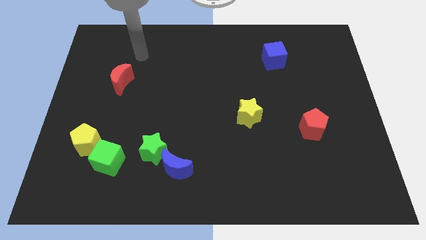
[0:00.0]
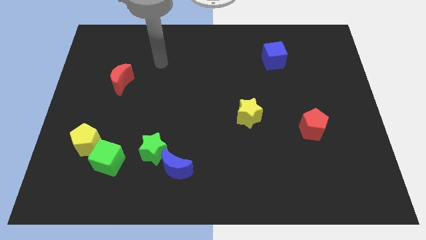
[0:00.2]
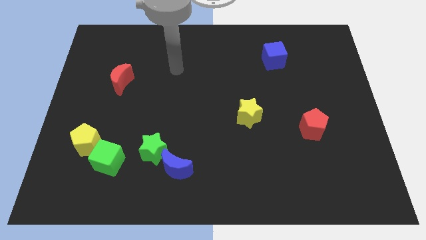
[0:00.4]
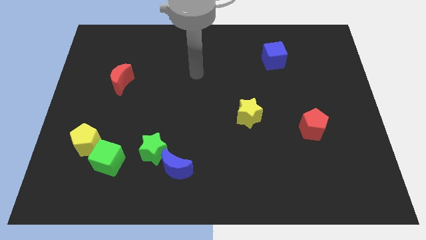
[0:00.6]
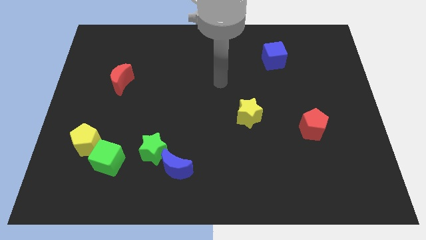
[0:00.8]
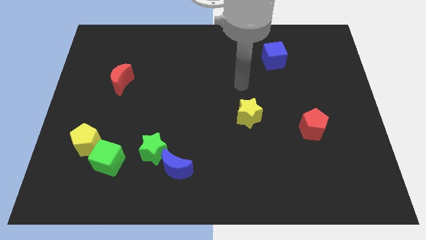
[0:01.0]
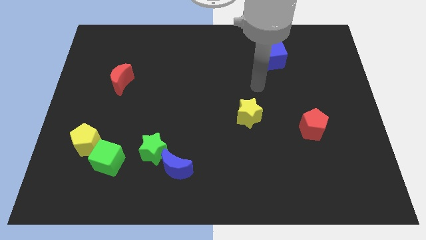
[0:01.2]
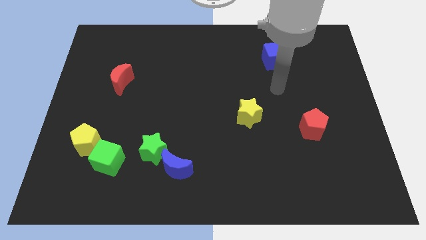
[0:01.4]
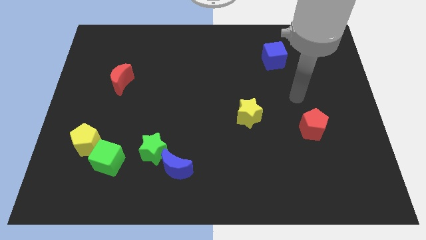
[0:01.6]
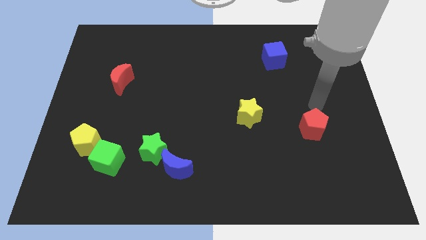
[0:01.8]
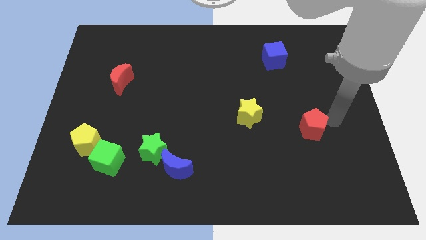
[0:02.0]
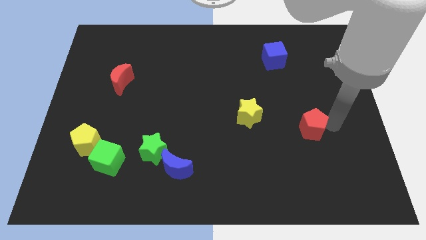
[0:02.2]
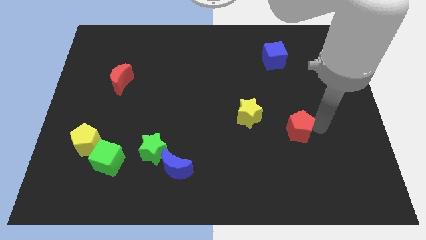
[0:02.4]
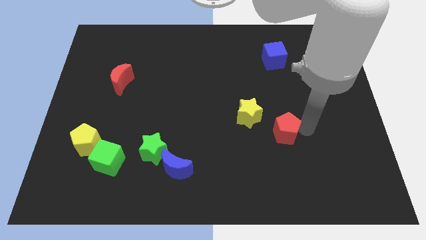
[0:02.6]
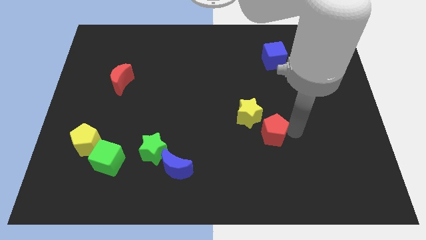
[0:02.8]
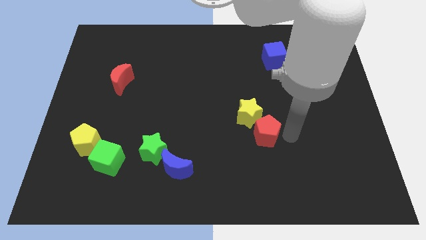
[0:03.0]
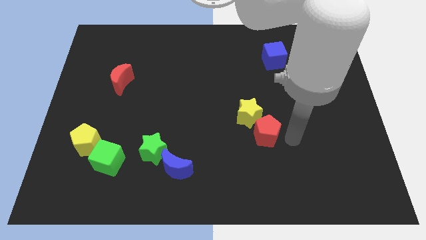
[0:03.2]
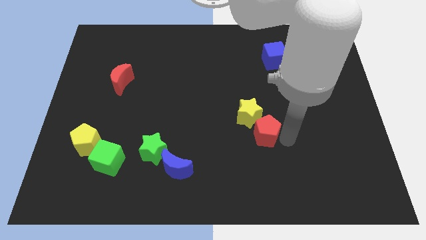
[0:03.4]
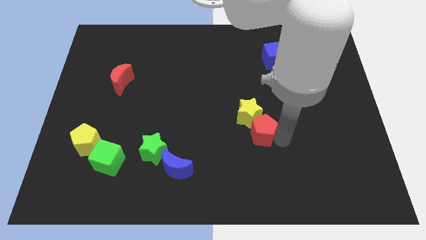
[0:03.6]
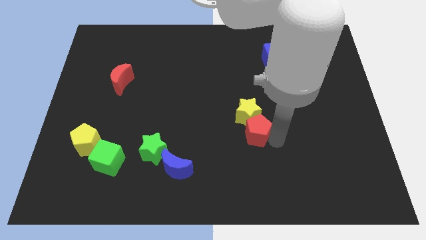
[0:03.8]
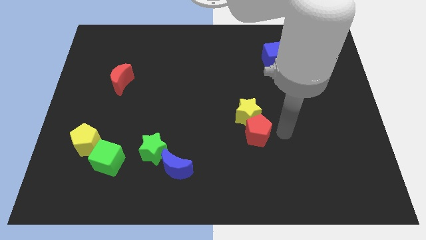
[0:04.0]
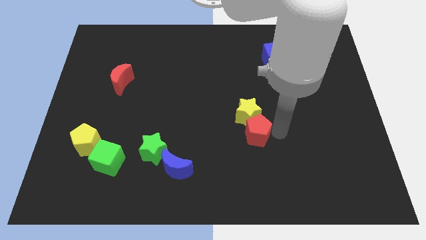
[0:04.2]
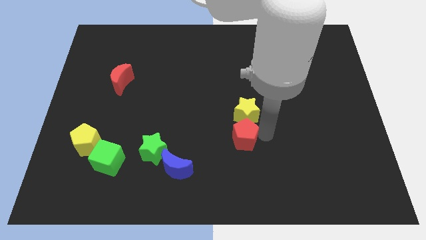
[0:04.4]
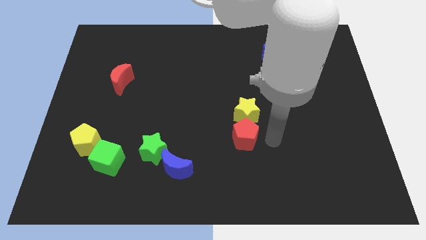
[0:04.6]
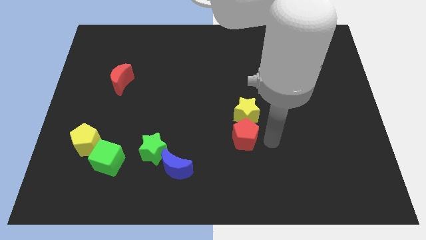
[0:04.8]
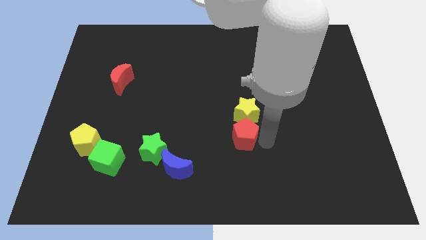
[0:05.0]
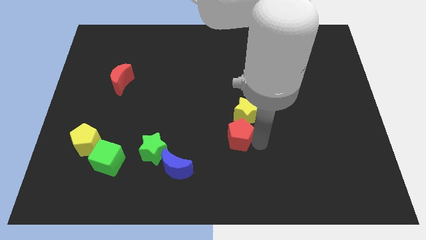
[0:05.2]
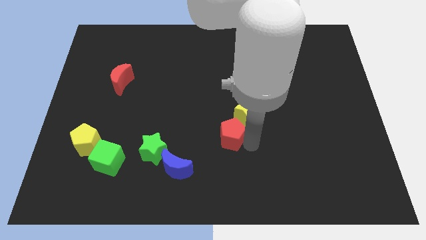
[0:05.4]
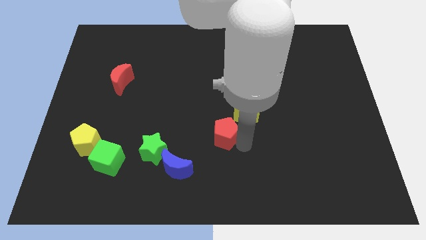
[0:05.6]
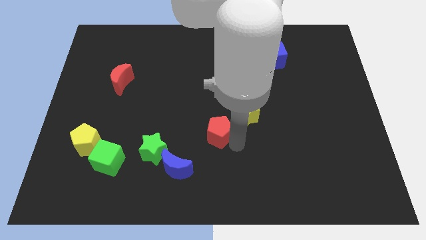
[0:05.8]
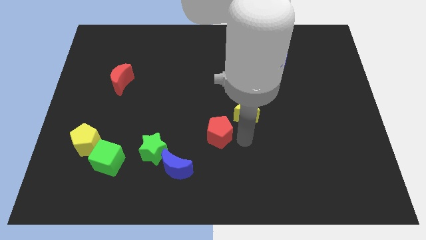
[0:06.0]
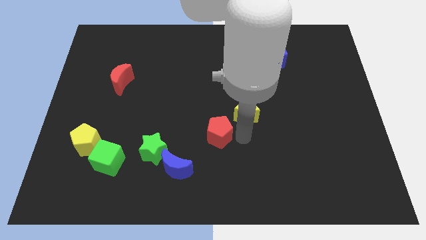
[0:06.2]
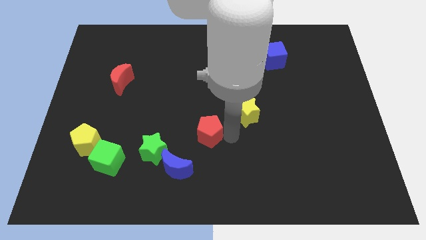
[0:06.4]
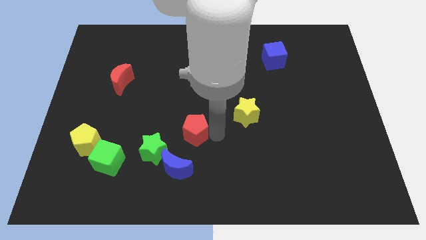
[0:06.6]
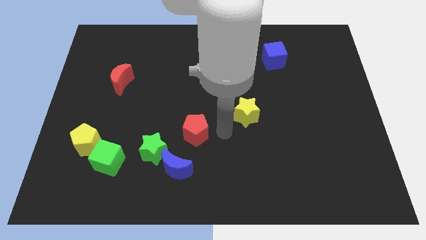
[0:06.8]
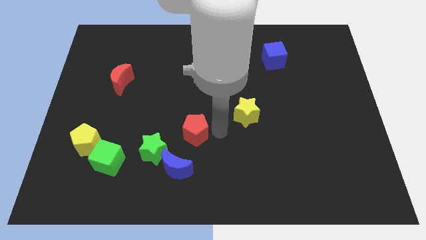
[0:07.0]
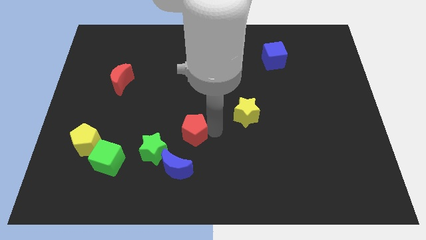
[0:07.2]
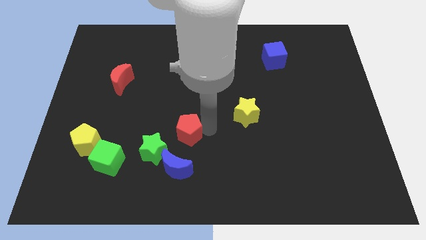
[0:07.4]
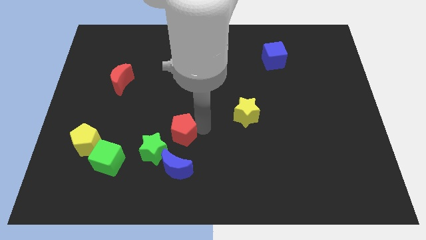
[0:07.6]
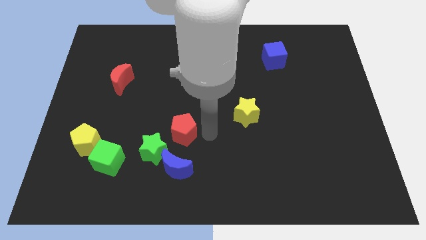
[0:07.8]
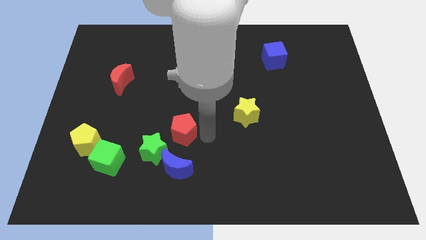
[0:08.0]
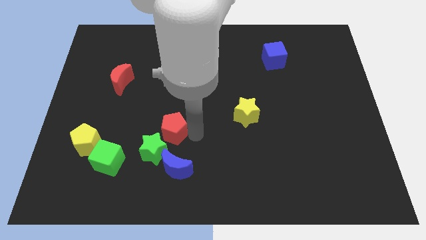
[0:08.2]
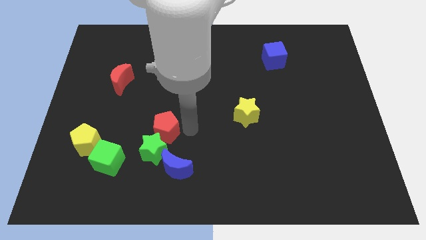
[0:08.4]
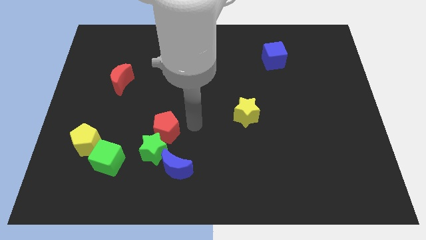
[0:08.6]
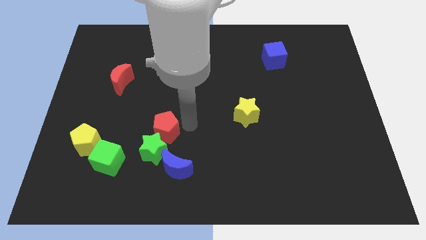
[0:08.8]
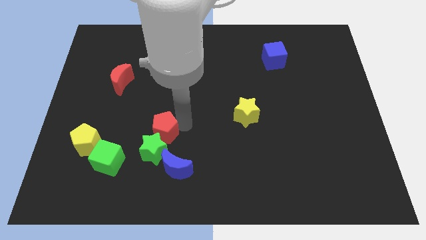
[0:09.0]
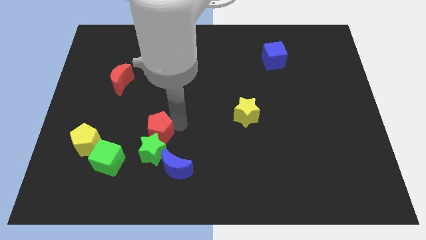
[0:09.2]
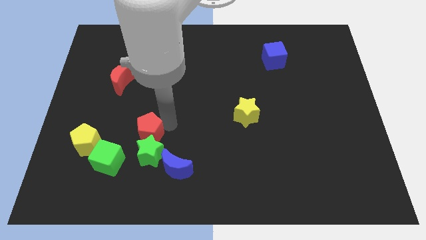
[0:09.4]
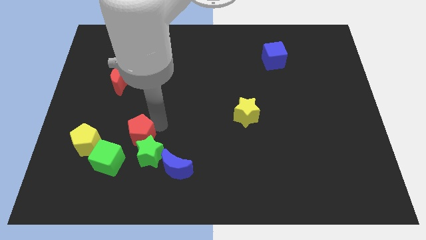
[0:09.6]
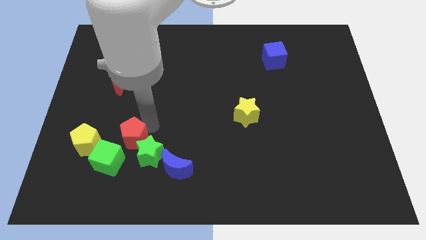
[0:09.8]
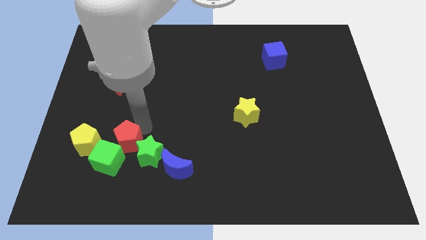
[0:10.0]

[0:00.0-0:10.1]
put the red pentagon next to the green cube

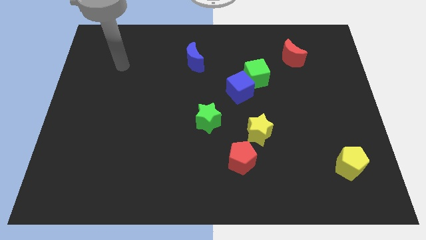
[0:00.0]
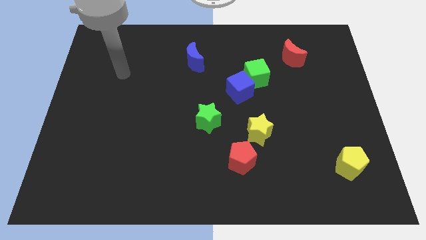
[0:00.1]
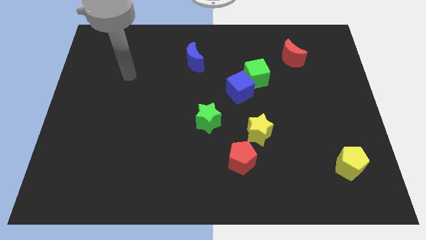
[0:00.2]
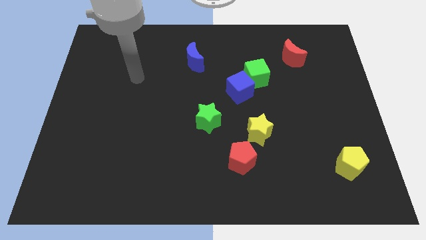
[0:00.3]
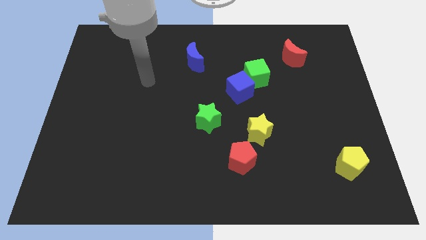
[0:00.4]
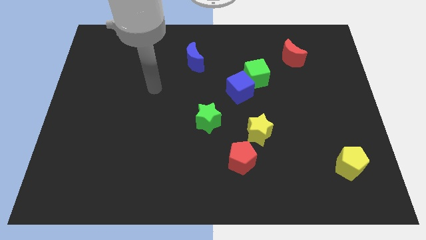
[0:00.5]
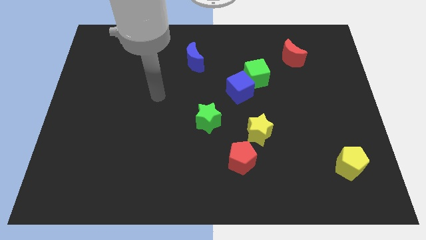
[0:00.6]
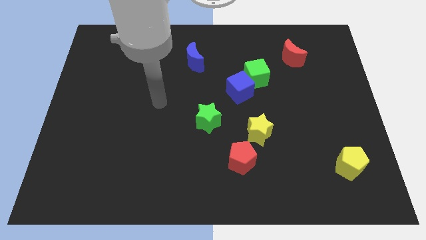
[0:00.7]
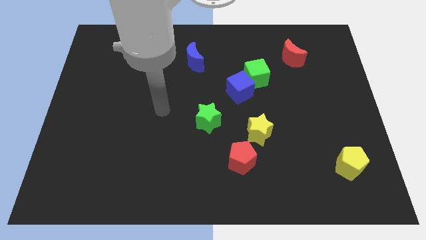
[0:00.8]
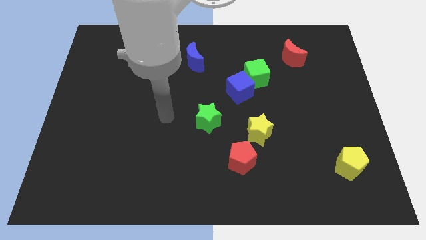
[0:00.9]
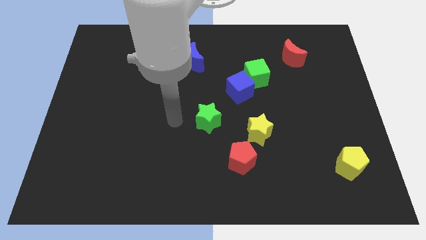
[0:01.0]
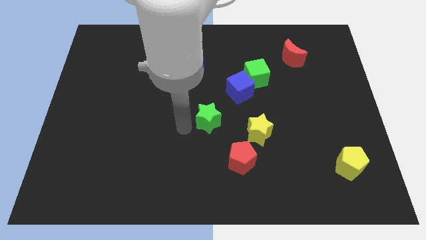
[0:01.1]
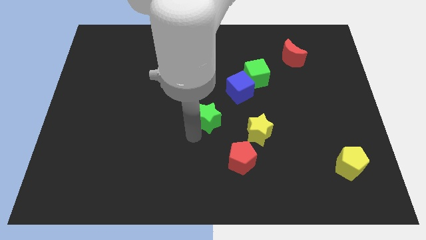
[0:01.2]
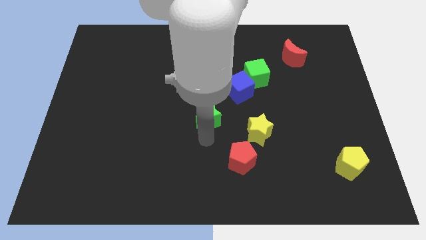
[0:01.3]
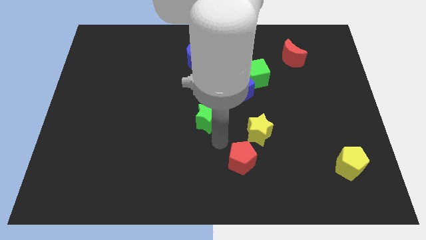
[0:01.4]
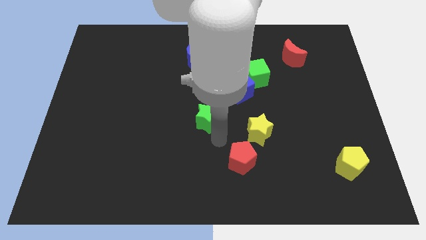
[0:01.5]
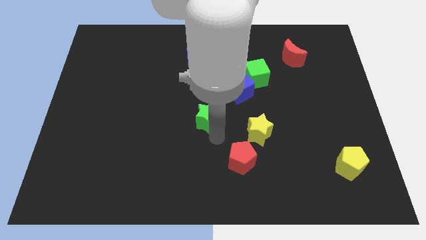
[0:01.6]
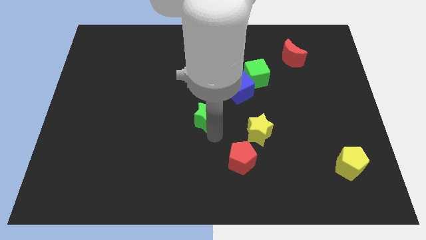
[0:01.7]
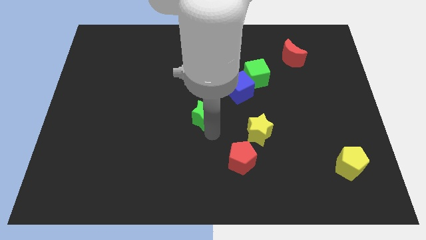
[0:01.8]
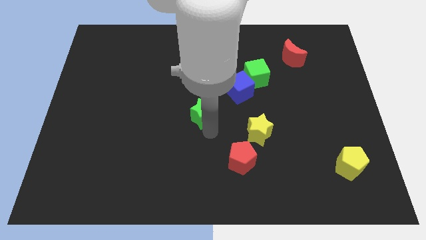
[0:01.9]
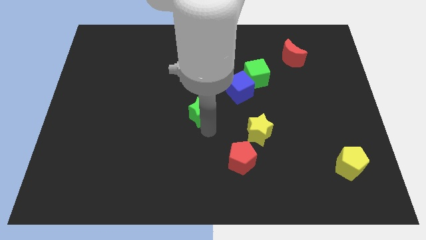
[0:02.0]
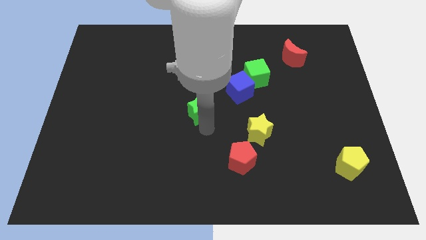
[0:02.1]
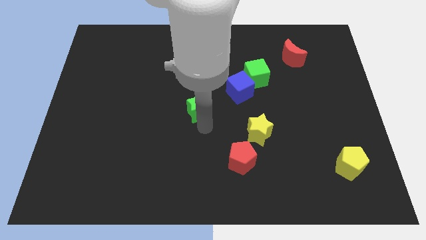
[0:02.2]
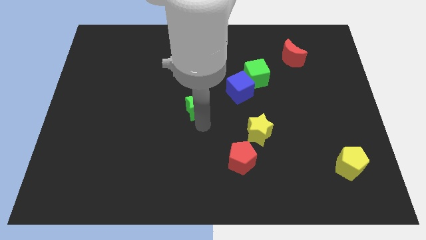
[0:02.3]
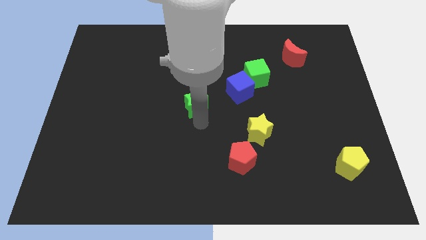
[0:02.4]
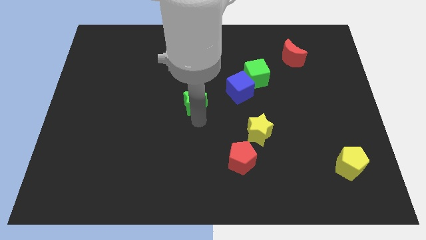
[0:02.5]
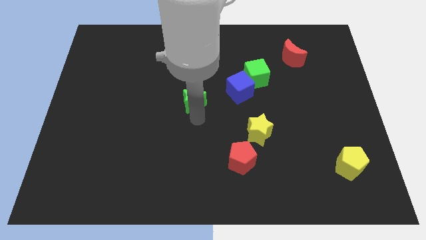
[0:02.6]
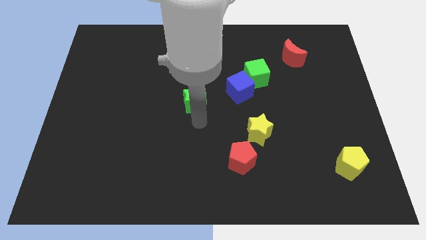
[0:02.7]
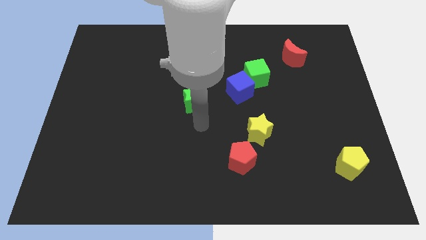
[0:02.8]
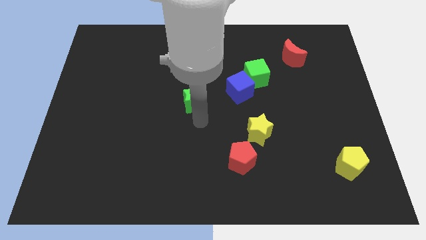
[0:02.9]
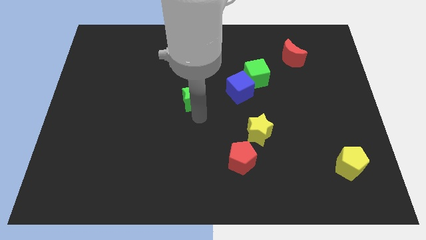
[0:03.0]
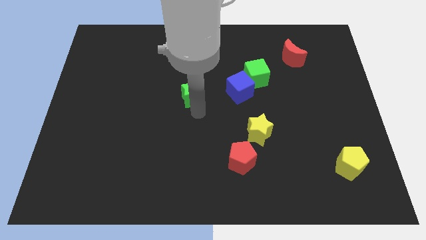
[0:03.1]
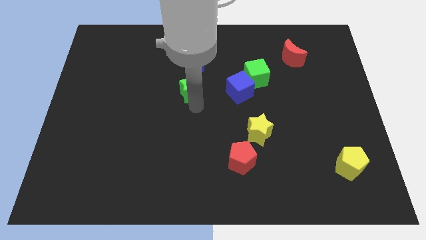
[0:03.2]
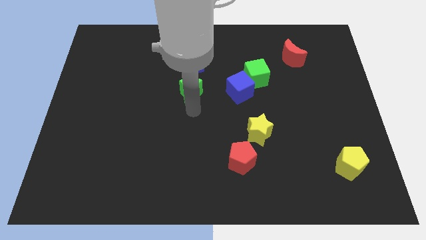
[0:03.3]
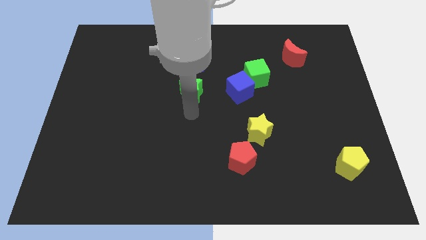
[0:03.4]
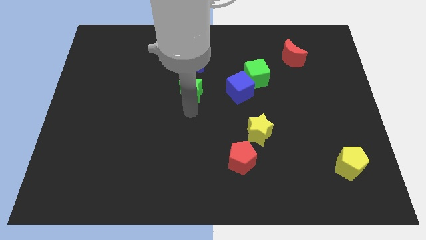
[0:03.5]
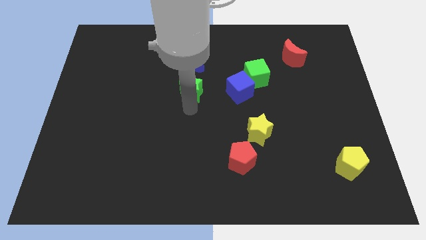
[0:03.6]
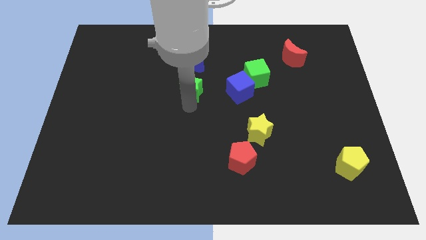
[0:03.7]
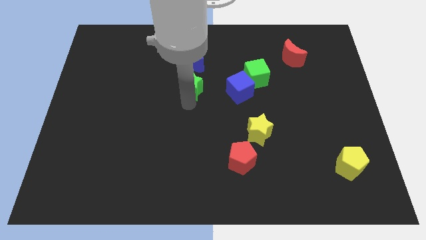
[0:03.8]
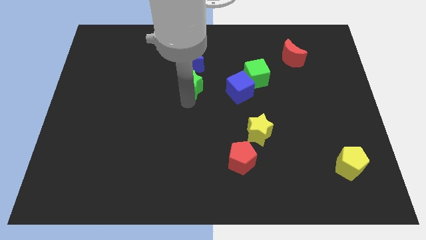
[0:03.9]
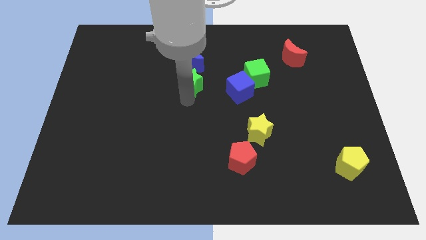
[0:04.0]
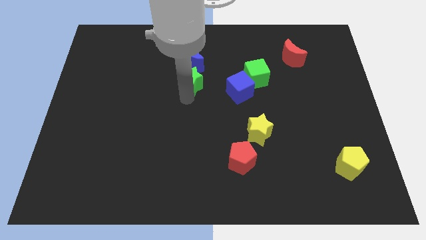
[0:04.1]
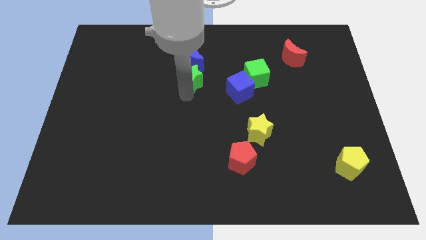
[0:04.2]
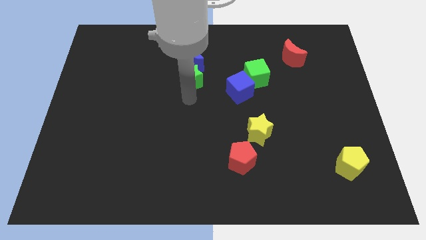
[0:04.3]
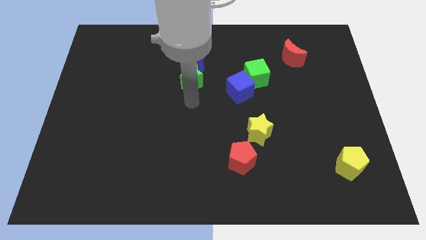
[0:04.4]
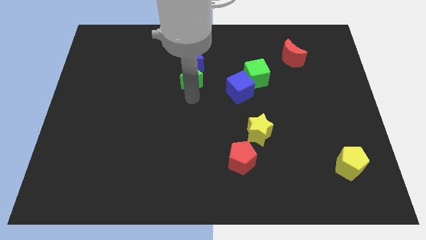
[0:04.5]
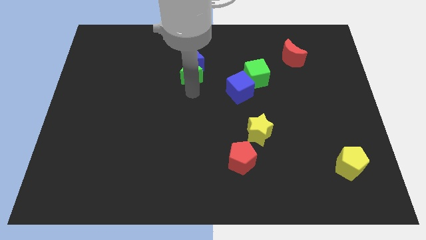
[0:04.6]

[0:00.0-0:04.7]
push the green star to the blue moon
